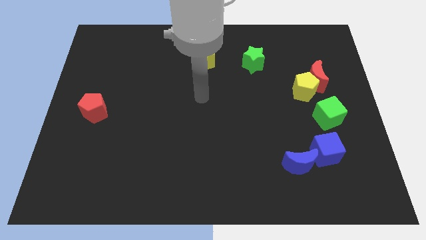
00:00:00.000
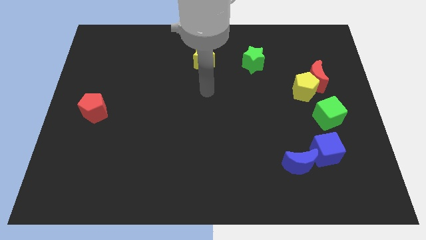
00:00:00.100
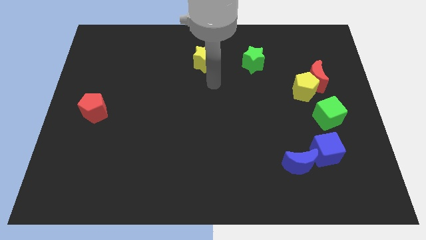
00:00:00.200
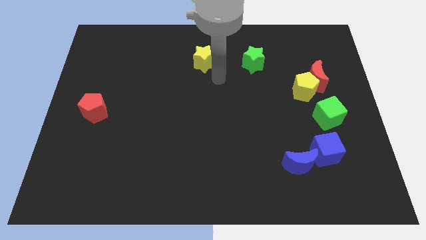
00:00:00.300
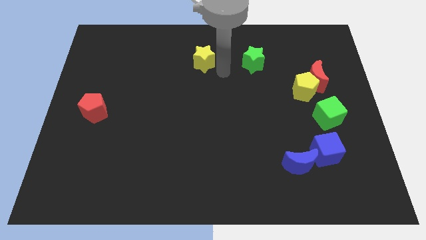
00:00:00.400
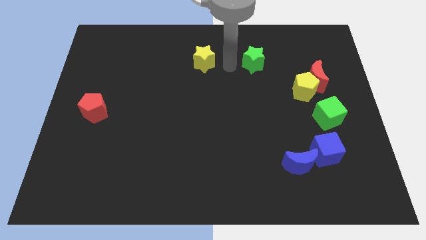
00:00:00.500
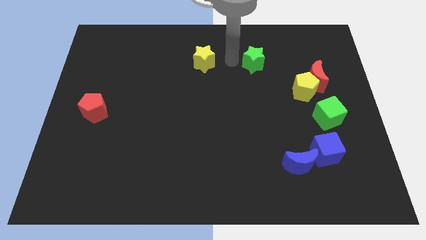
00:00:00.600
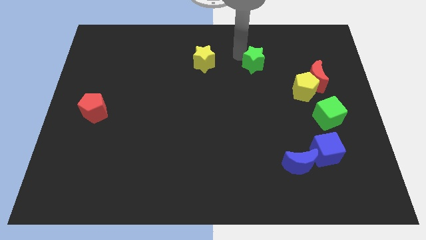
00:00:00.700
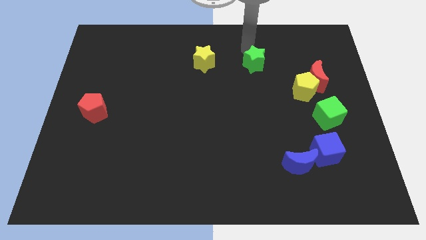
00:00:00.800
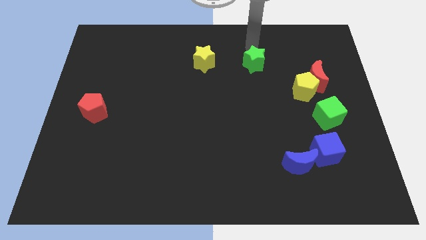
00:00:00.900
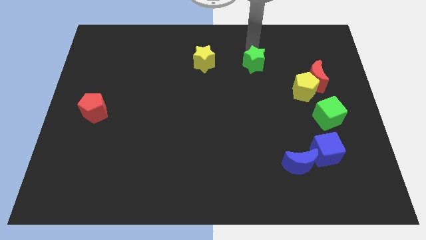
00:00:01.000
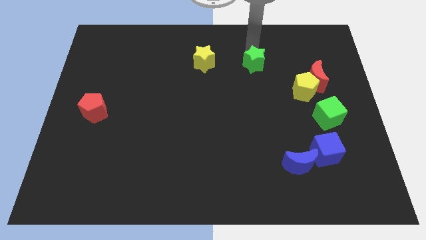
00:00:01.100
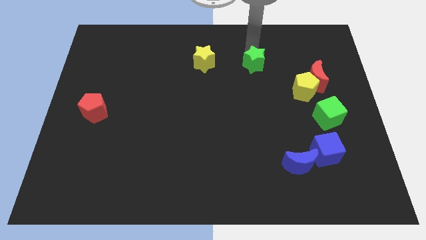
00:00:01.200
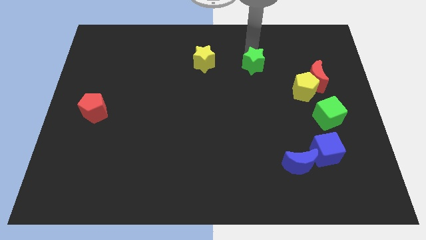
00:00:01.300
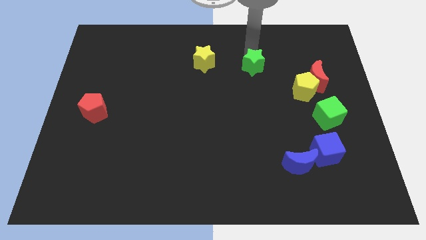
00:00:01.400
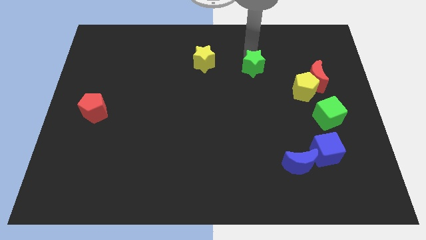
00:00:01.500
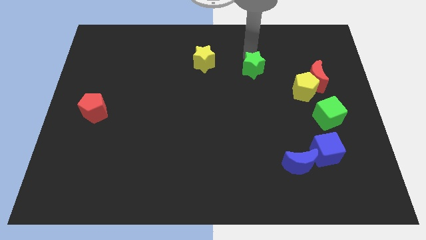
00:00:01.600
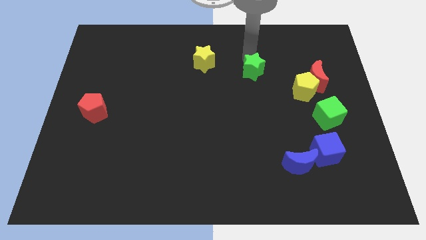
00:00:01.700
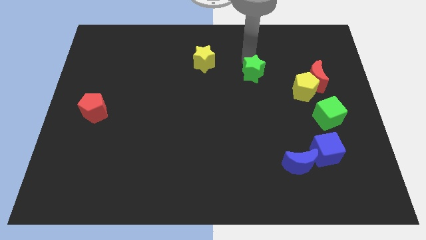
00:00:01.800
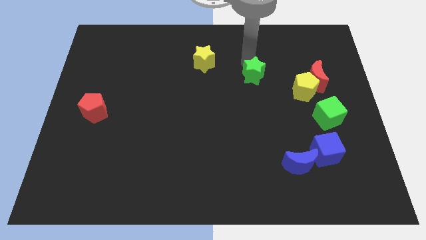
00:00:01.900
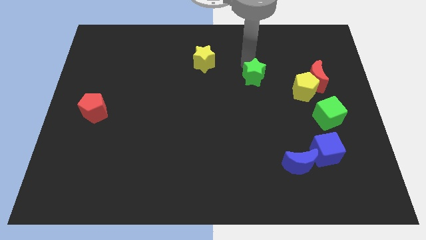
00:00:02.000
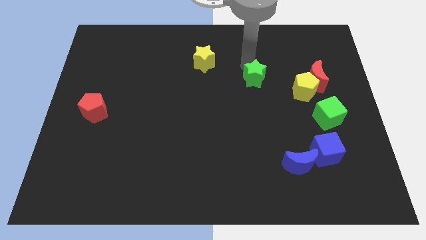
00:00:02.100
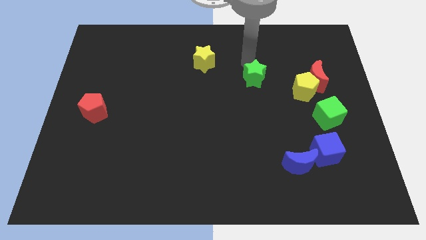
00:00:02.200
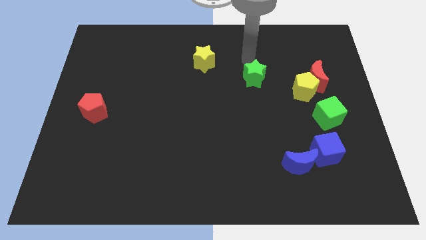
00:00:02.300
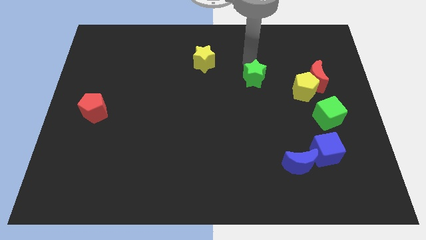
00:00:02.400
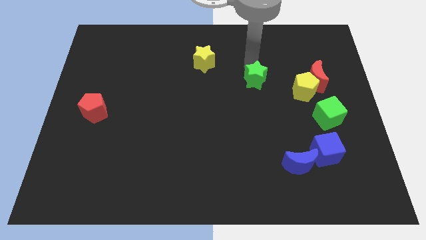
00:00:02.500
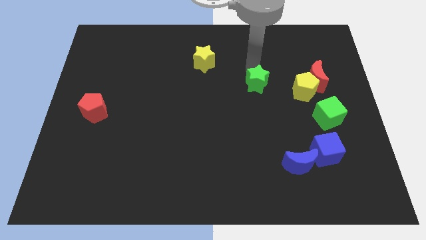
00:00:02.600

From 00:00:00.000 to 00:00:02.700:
push the green star a bit down

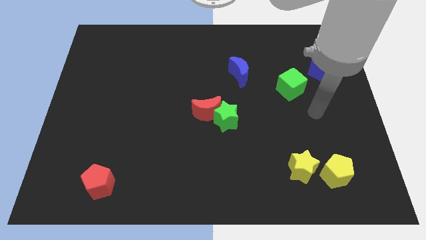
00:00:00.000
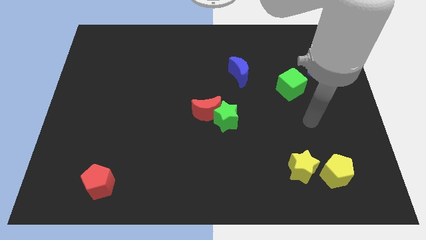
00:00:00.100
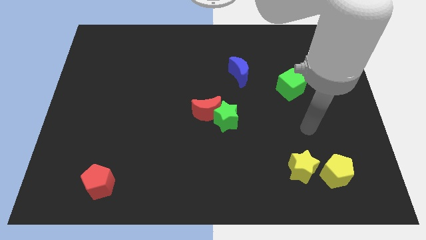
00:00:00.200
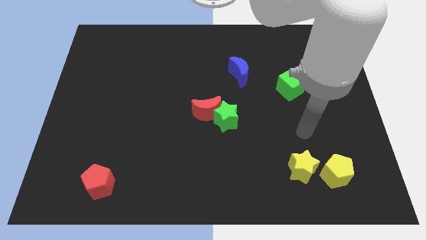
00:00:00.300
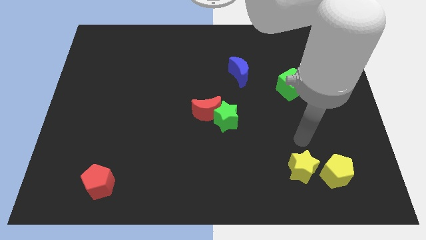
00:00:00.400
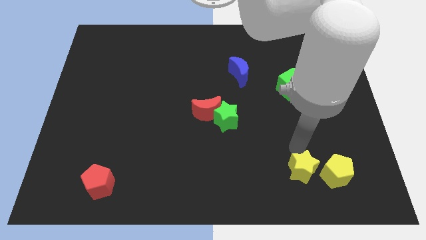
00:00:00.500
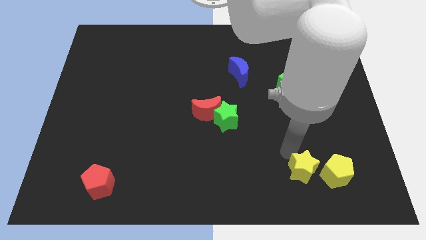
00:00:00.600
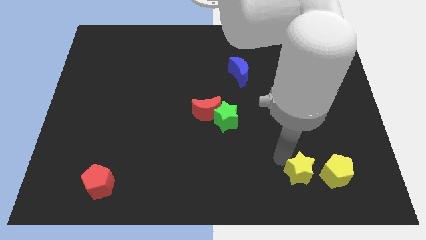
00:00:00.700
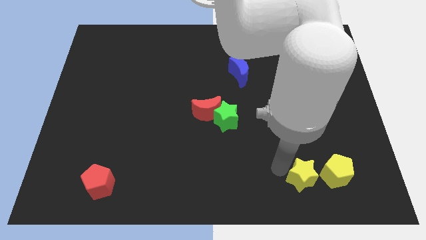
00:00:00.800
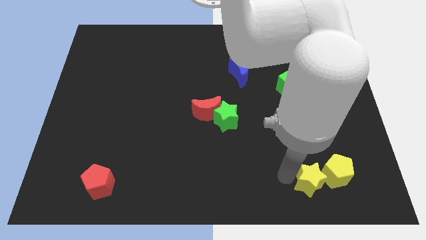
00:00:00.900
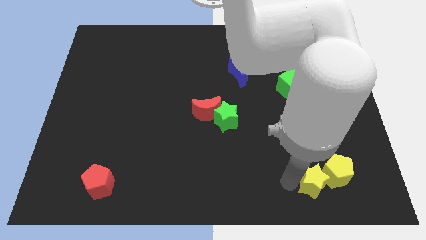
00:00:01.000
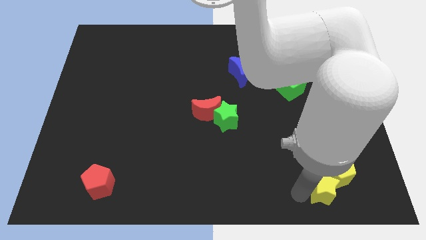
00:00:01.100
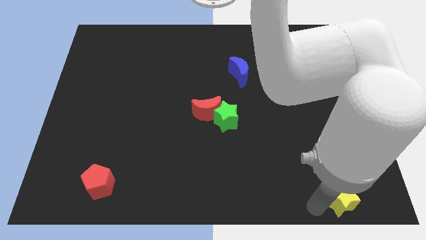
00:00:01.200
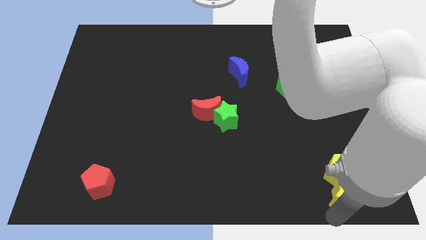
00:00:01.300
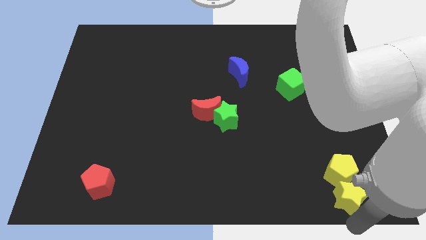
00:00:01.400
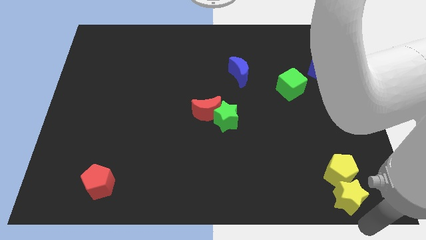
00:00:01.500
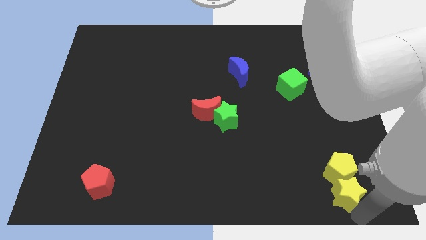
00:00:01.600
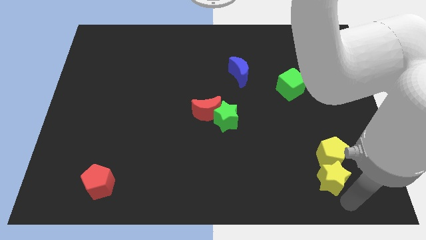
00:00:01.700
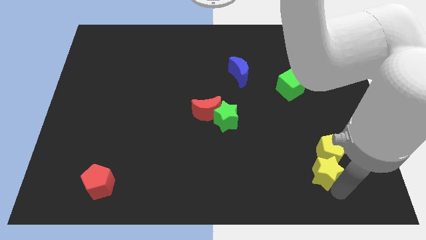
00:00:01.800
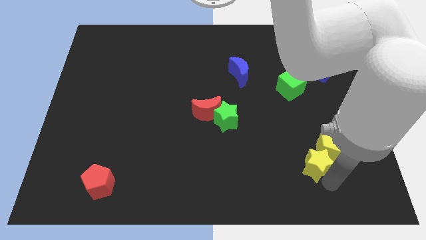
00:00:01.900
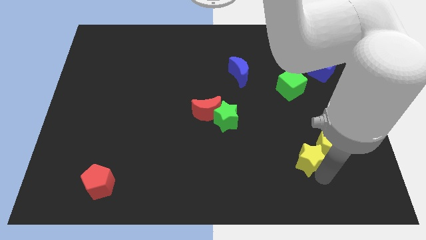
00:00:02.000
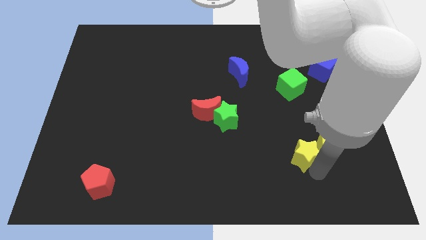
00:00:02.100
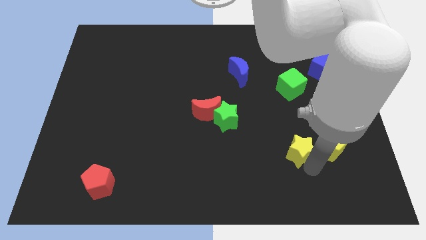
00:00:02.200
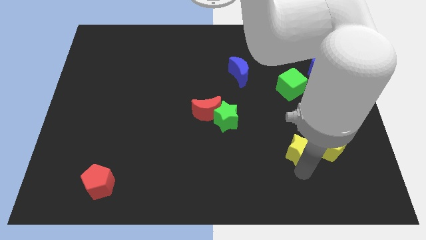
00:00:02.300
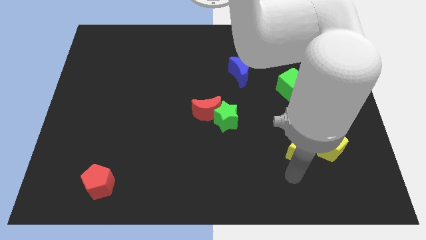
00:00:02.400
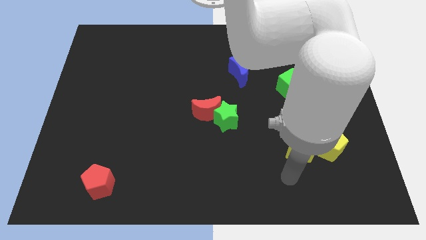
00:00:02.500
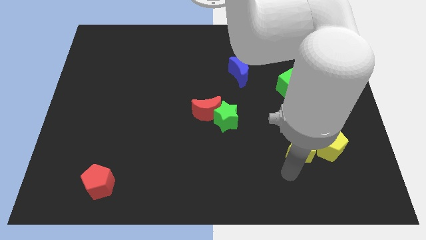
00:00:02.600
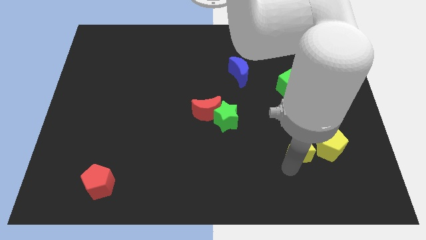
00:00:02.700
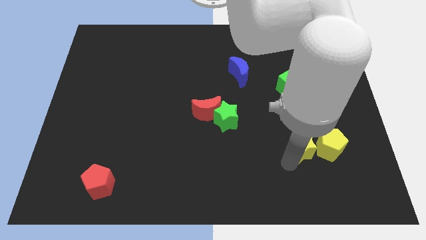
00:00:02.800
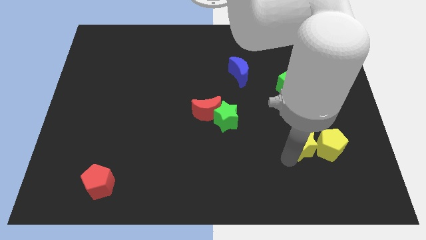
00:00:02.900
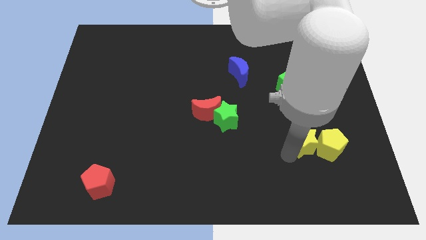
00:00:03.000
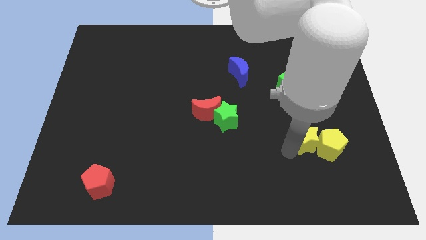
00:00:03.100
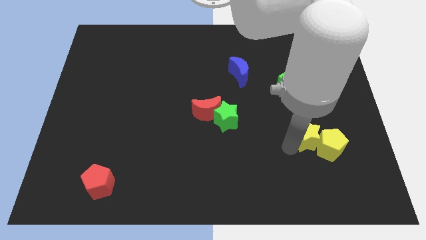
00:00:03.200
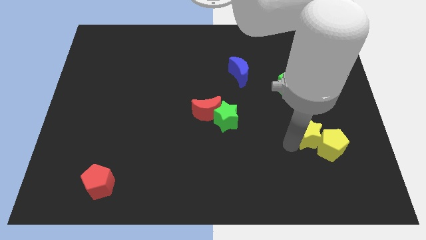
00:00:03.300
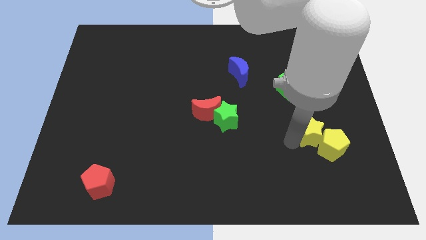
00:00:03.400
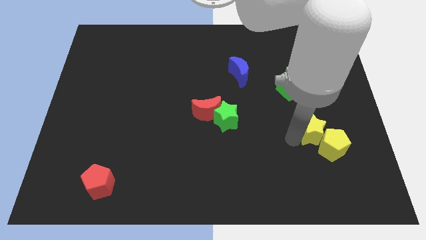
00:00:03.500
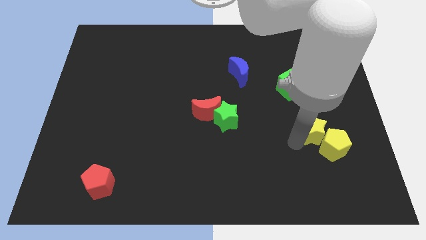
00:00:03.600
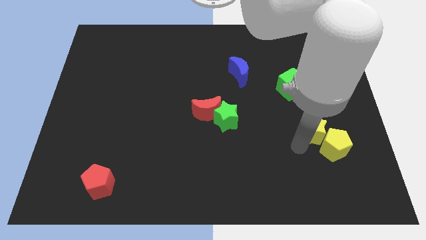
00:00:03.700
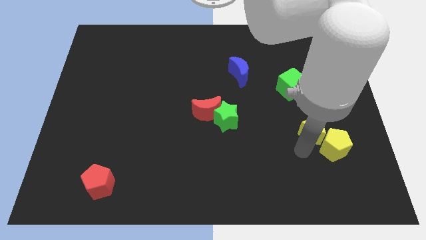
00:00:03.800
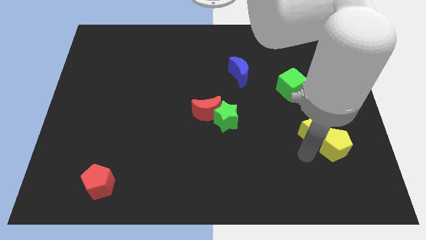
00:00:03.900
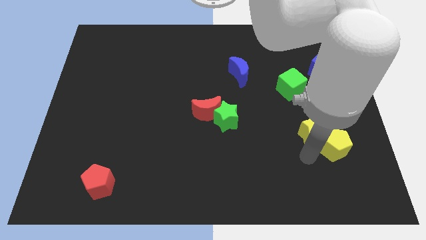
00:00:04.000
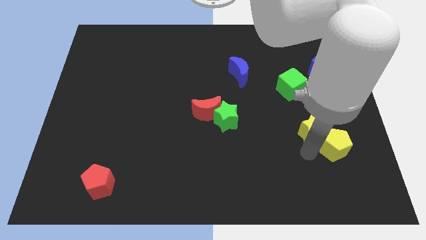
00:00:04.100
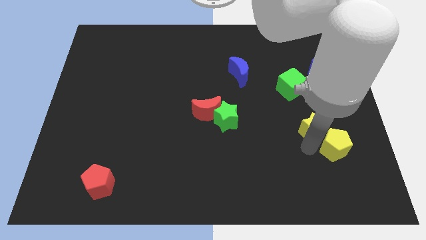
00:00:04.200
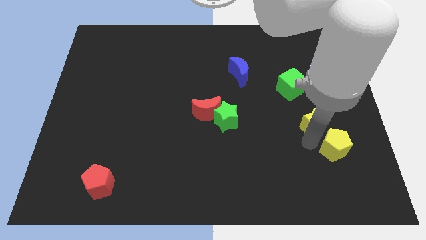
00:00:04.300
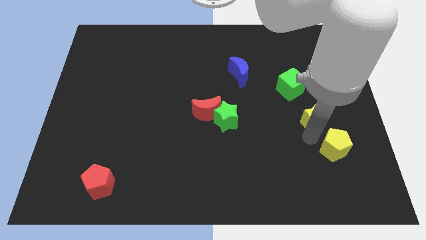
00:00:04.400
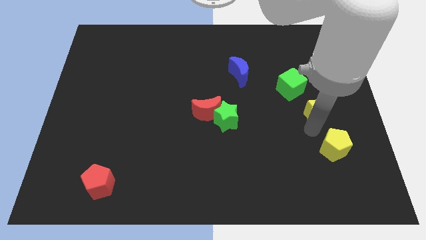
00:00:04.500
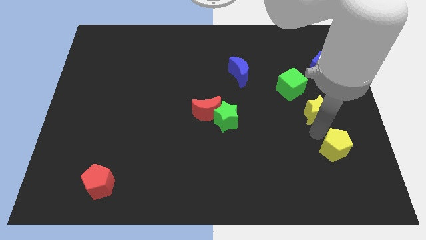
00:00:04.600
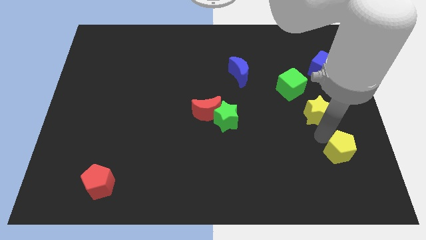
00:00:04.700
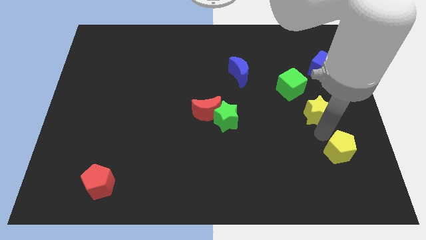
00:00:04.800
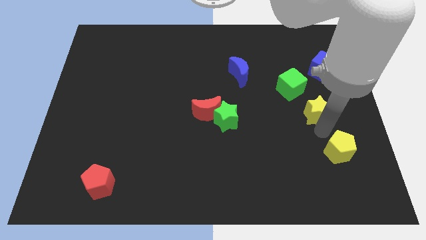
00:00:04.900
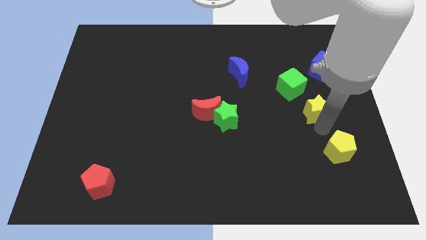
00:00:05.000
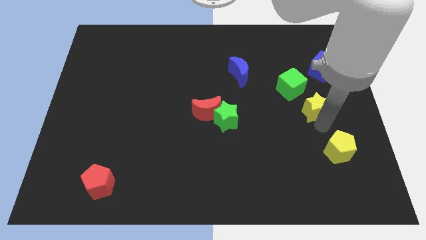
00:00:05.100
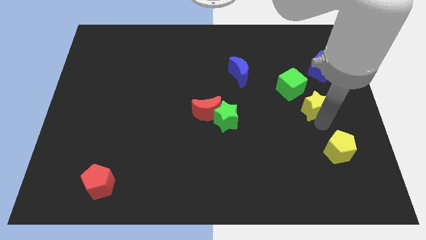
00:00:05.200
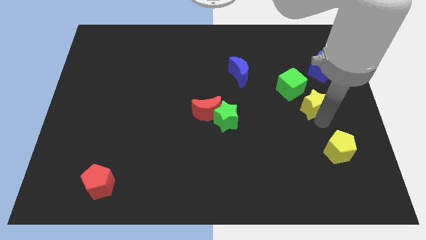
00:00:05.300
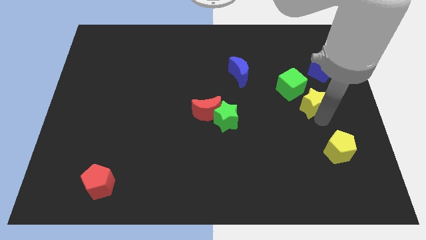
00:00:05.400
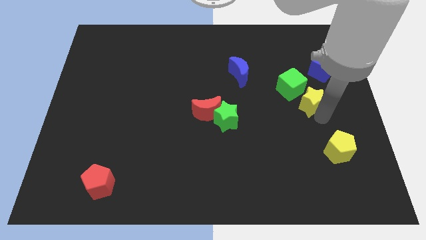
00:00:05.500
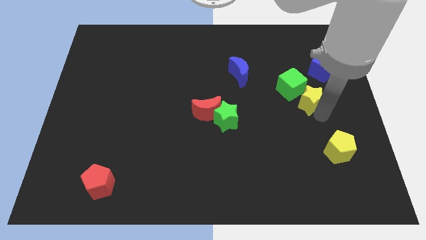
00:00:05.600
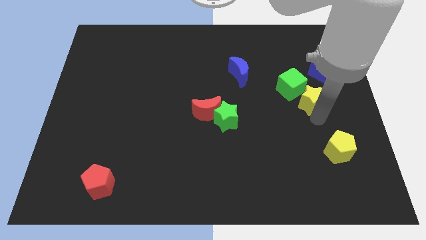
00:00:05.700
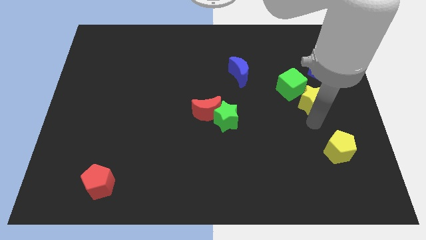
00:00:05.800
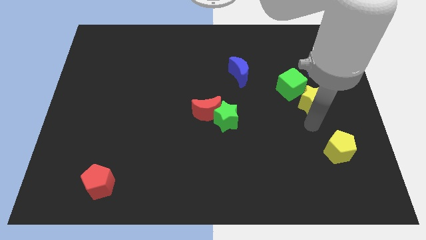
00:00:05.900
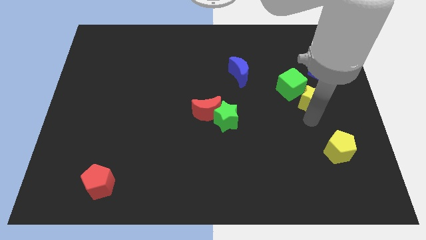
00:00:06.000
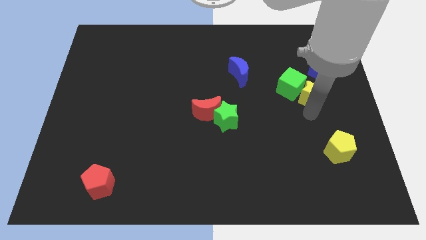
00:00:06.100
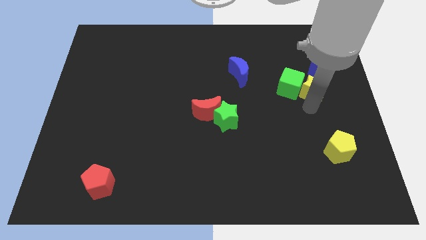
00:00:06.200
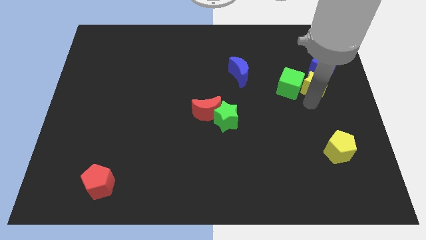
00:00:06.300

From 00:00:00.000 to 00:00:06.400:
push the yellow star up
